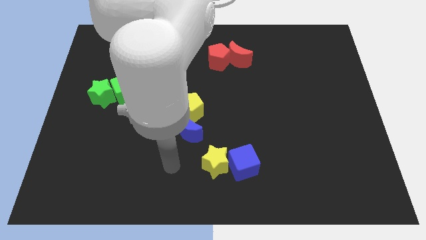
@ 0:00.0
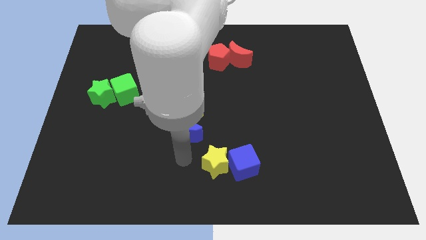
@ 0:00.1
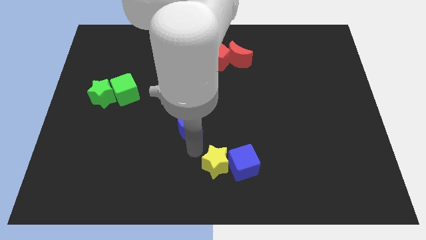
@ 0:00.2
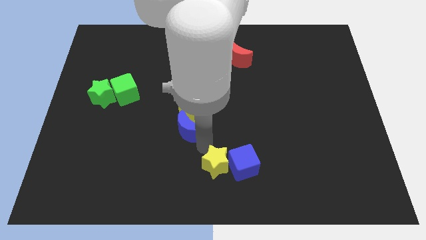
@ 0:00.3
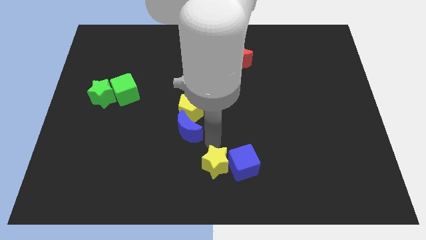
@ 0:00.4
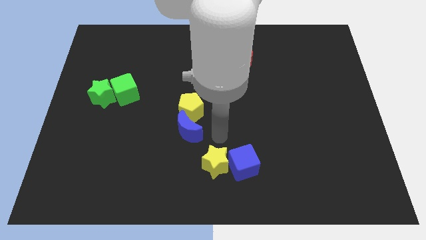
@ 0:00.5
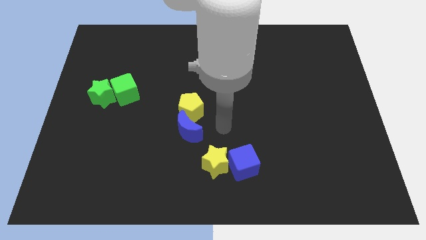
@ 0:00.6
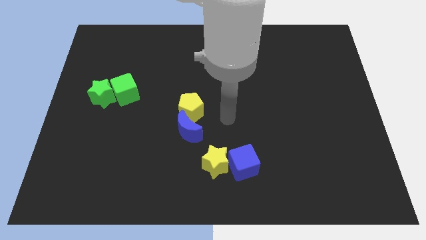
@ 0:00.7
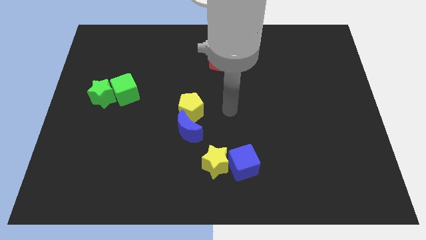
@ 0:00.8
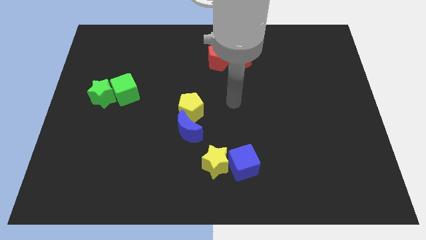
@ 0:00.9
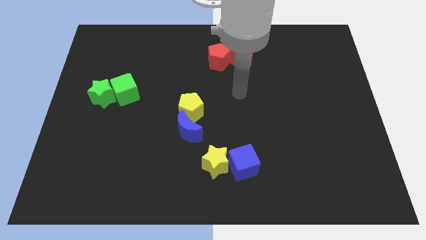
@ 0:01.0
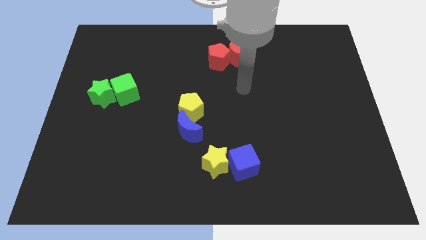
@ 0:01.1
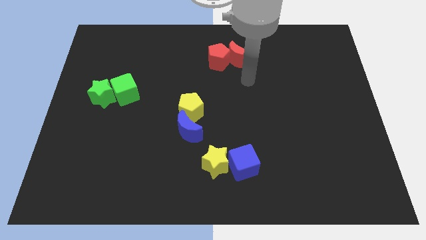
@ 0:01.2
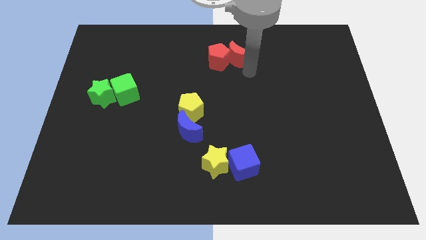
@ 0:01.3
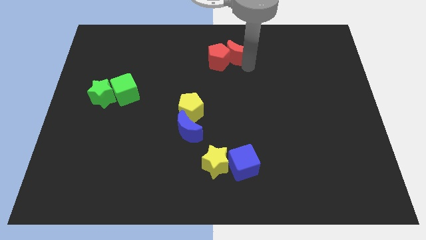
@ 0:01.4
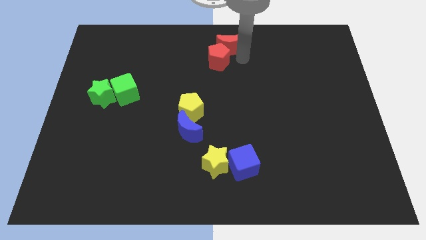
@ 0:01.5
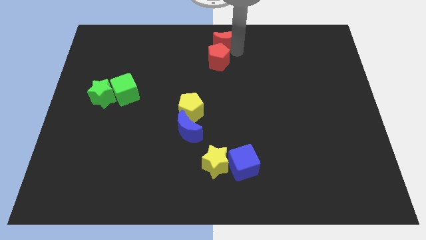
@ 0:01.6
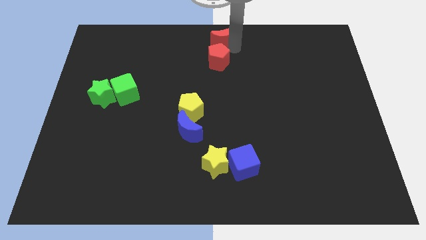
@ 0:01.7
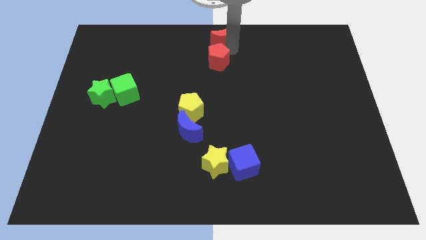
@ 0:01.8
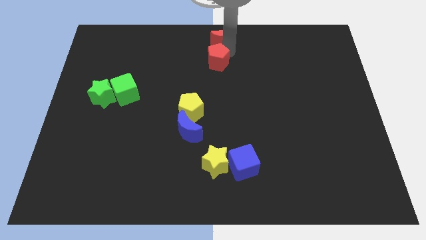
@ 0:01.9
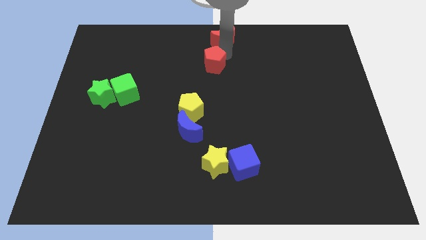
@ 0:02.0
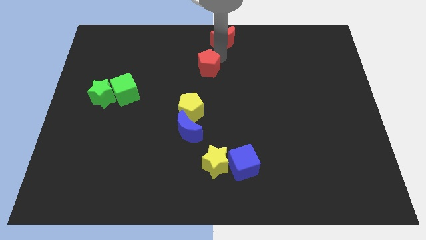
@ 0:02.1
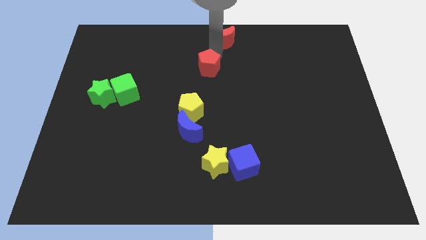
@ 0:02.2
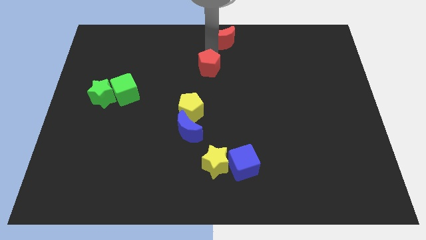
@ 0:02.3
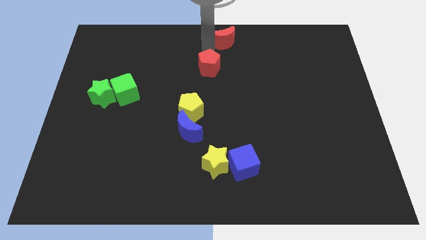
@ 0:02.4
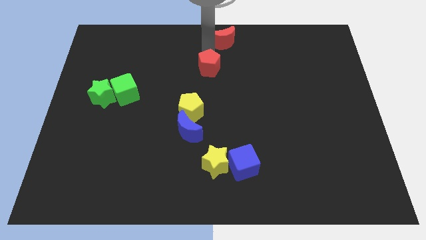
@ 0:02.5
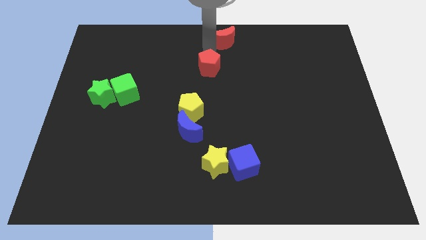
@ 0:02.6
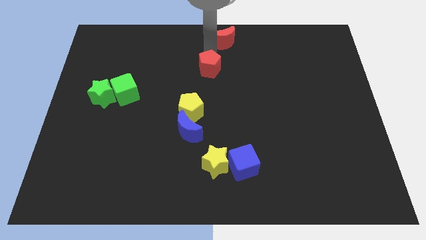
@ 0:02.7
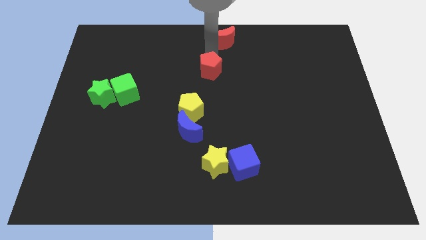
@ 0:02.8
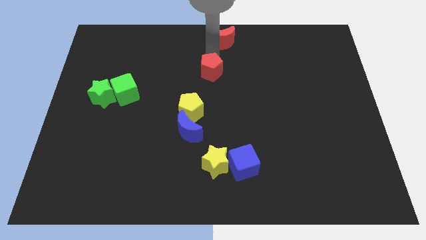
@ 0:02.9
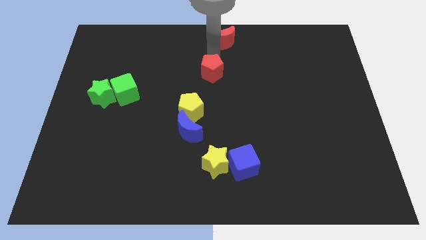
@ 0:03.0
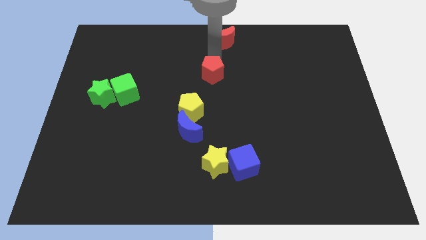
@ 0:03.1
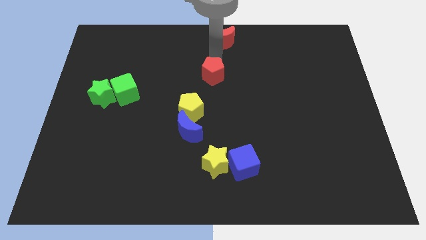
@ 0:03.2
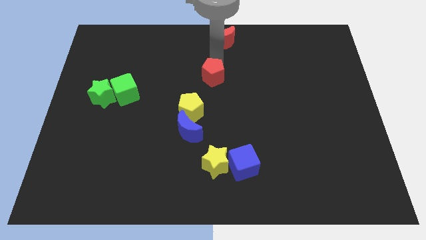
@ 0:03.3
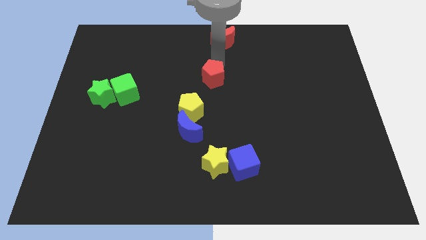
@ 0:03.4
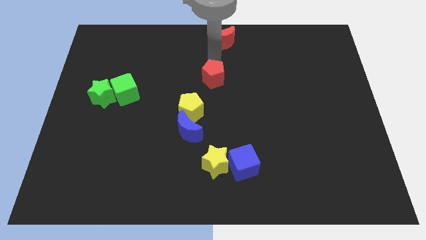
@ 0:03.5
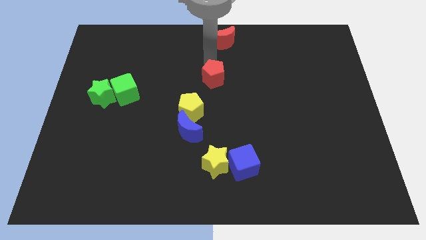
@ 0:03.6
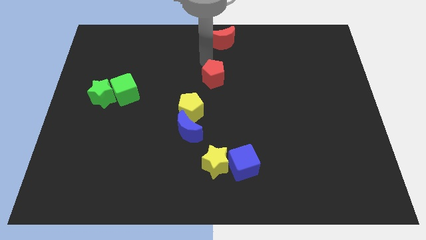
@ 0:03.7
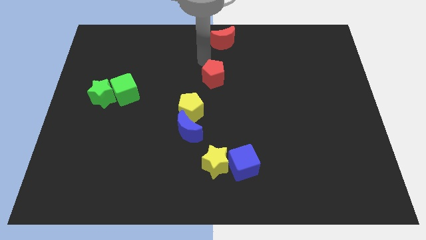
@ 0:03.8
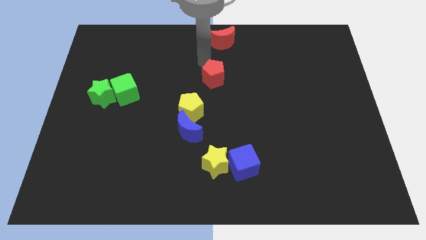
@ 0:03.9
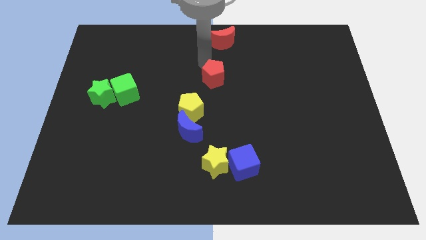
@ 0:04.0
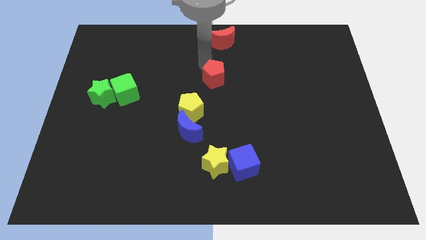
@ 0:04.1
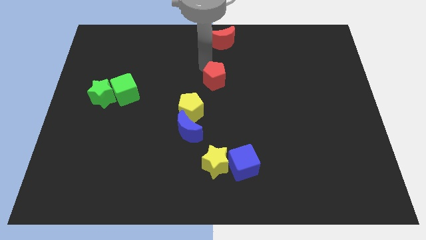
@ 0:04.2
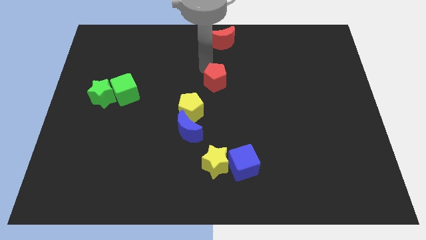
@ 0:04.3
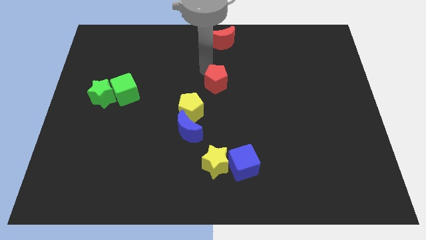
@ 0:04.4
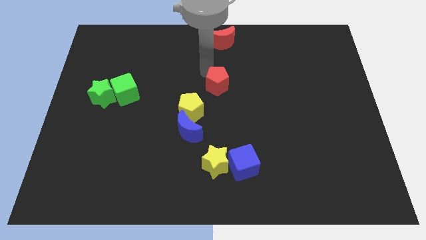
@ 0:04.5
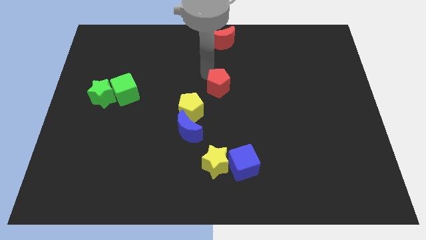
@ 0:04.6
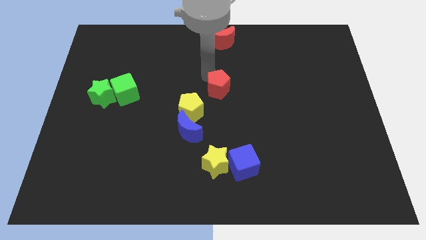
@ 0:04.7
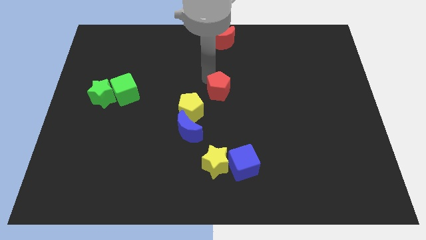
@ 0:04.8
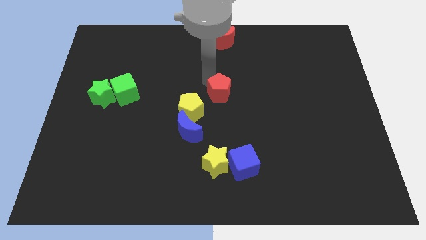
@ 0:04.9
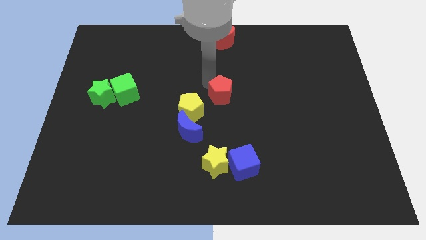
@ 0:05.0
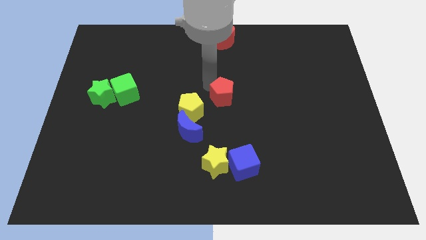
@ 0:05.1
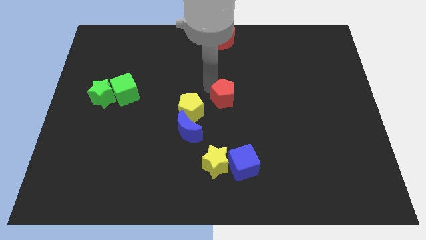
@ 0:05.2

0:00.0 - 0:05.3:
push the red pentagon a little downwards and right

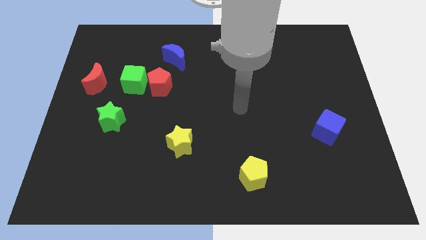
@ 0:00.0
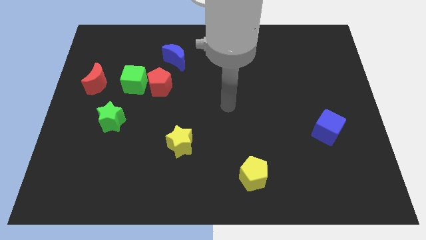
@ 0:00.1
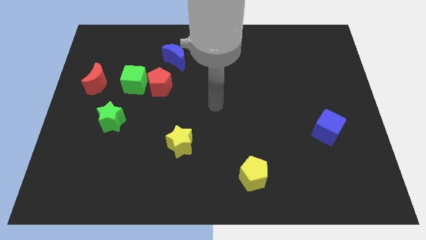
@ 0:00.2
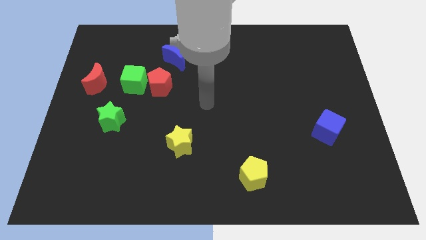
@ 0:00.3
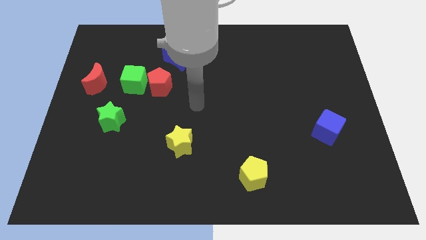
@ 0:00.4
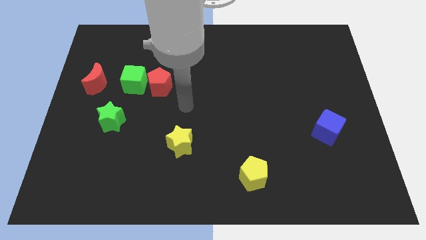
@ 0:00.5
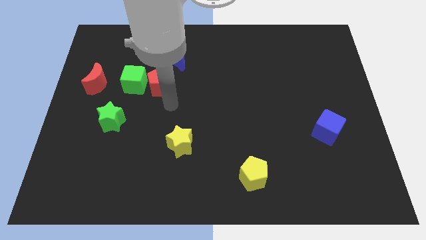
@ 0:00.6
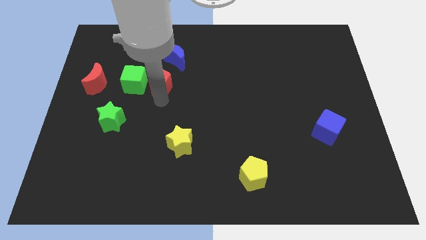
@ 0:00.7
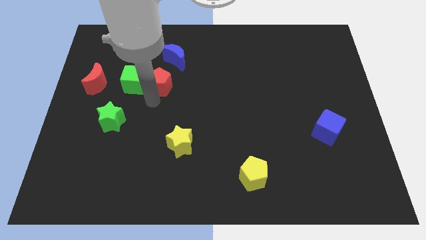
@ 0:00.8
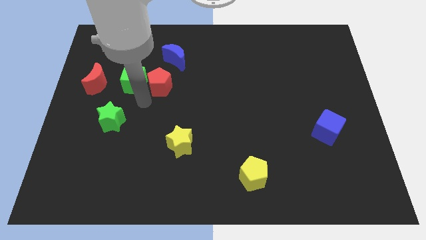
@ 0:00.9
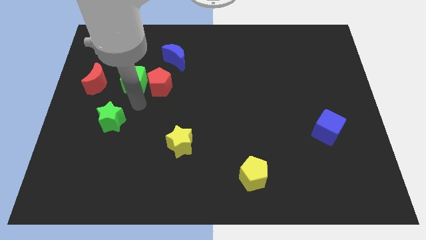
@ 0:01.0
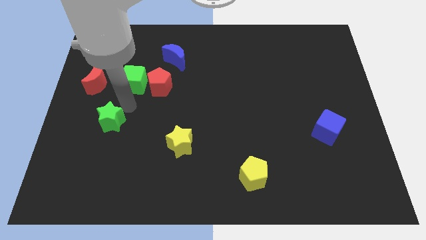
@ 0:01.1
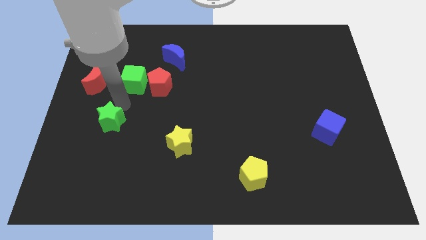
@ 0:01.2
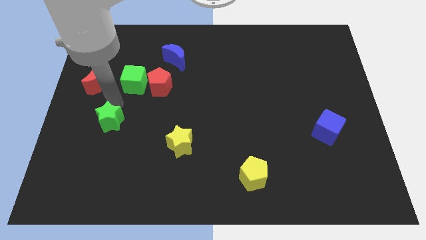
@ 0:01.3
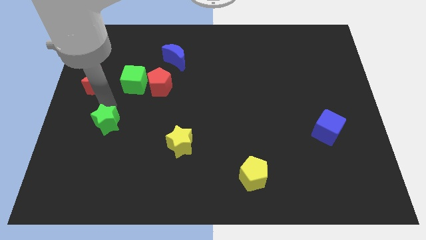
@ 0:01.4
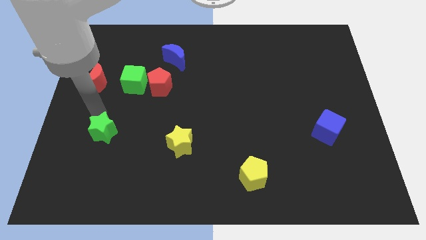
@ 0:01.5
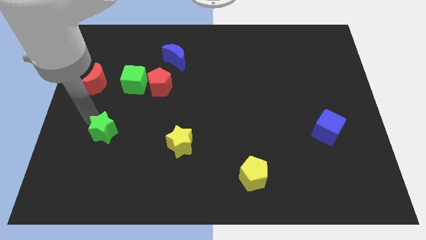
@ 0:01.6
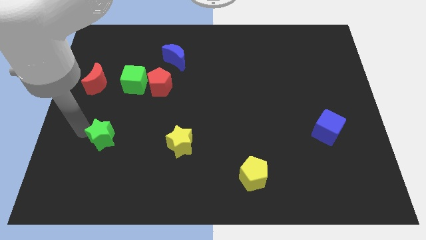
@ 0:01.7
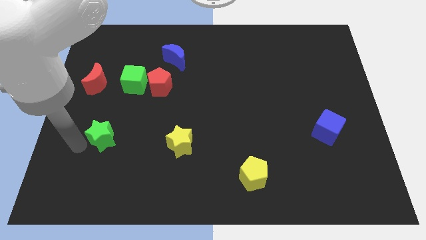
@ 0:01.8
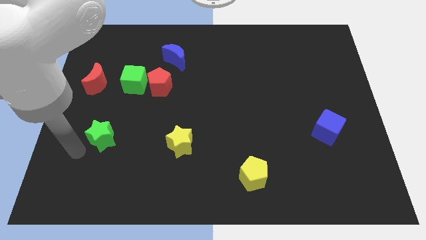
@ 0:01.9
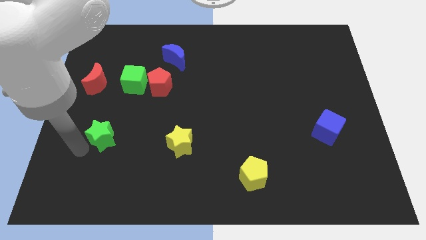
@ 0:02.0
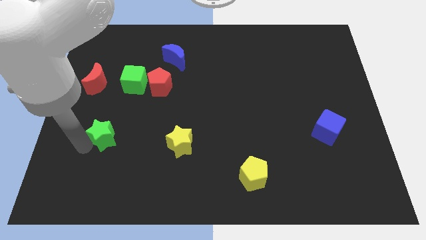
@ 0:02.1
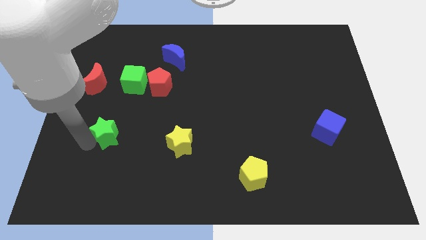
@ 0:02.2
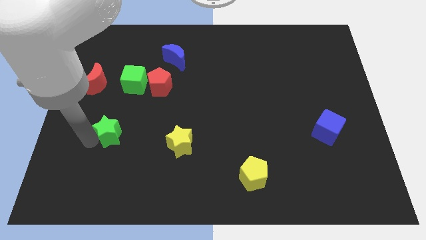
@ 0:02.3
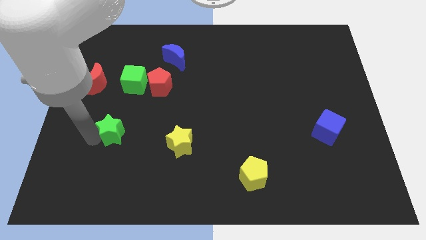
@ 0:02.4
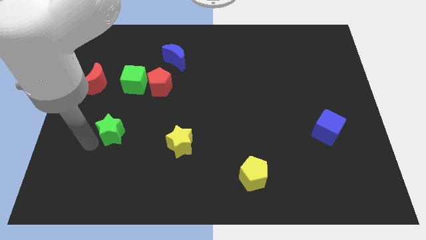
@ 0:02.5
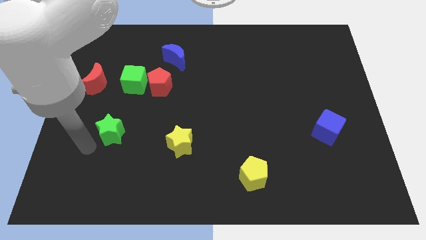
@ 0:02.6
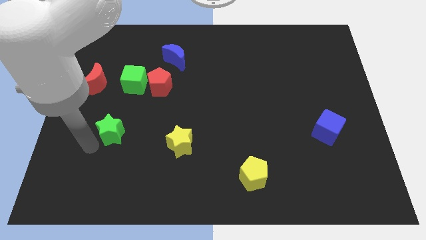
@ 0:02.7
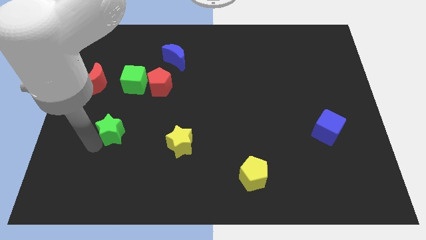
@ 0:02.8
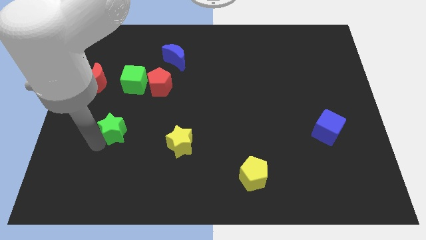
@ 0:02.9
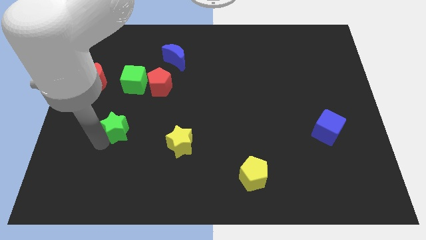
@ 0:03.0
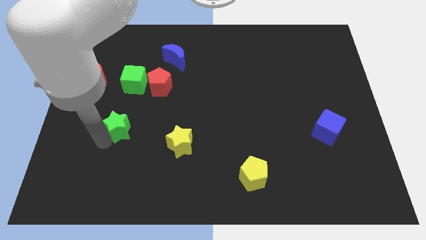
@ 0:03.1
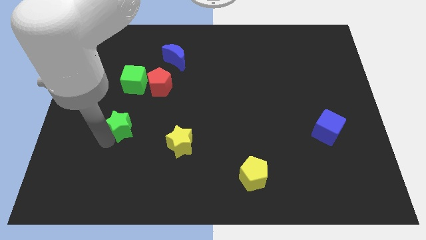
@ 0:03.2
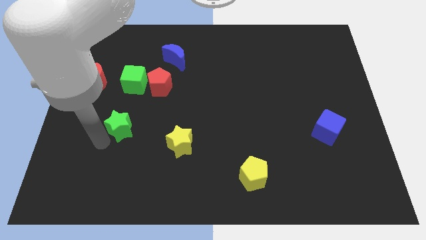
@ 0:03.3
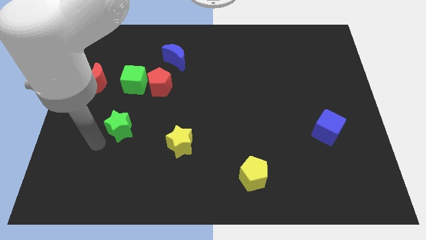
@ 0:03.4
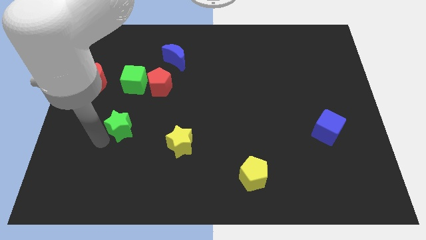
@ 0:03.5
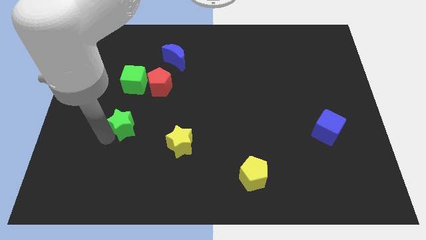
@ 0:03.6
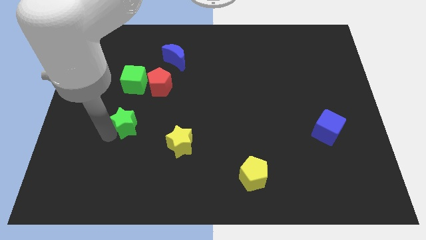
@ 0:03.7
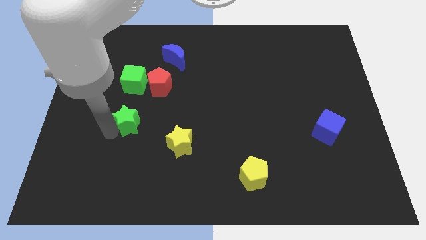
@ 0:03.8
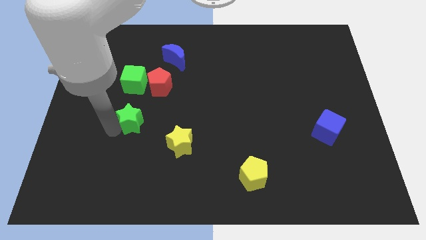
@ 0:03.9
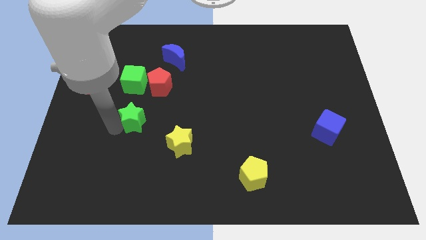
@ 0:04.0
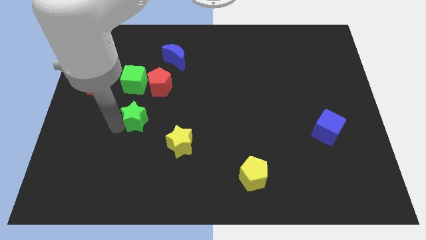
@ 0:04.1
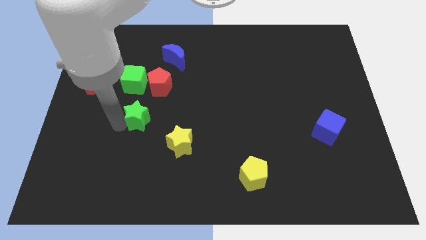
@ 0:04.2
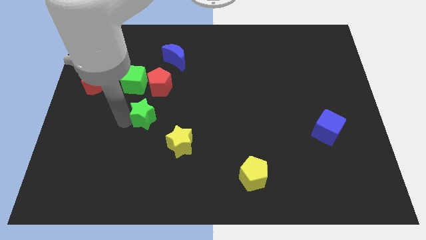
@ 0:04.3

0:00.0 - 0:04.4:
slightly push the green star to the right
